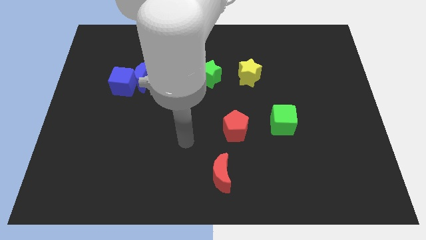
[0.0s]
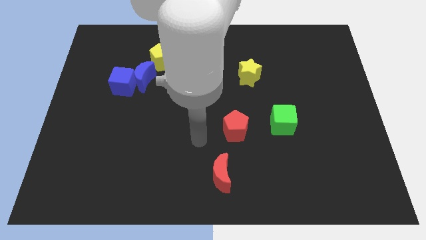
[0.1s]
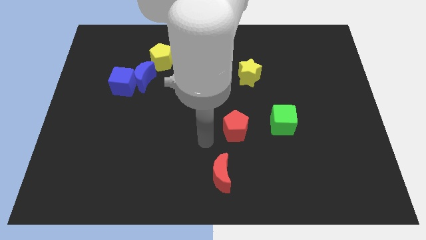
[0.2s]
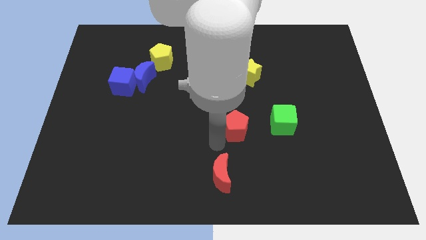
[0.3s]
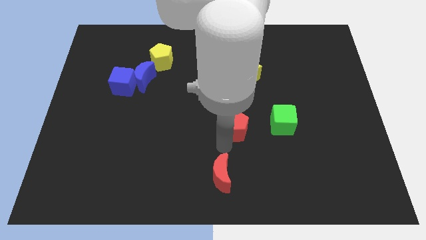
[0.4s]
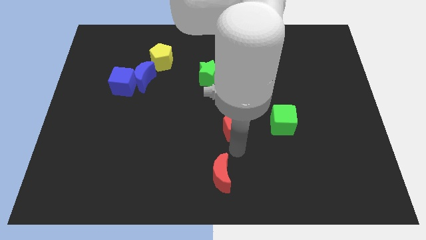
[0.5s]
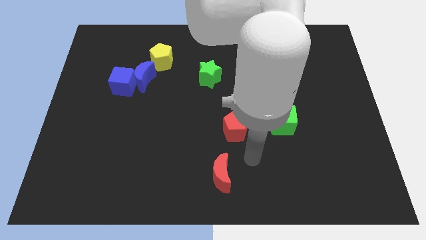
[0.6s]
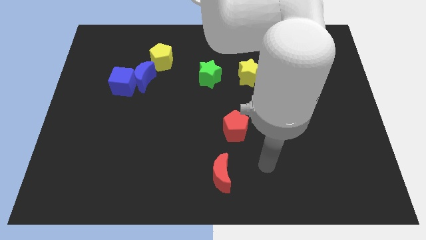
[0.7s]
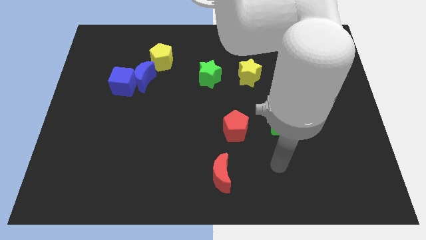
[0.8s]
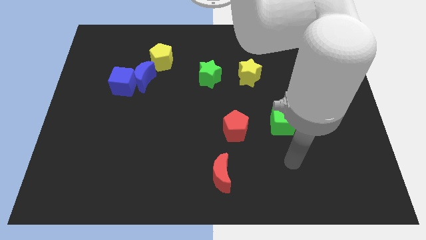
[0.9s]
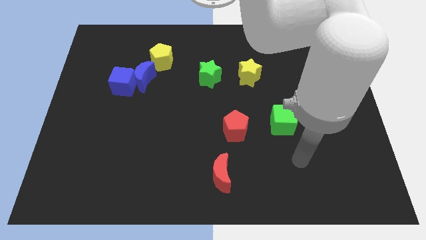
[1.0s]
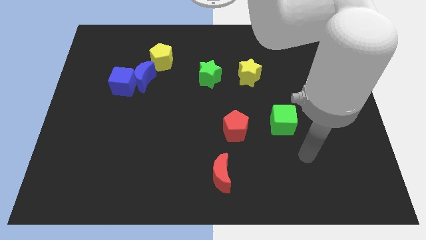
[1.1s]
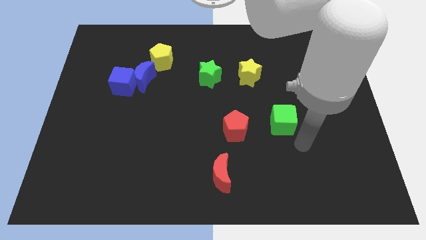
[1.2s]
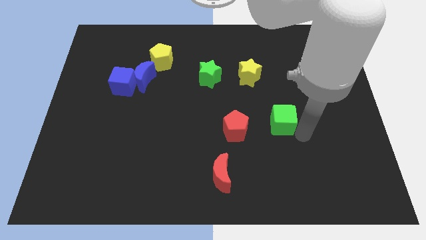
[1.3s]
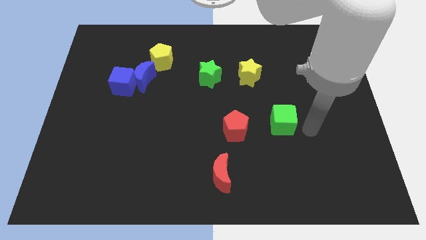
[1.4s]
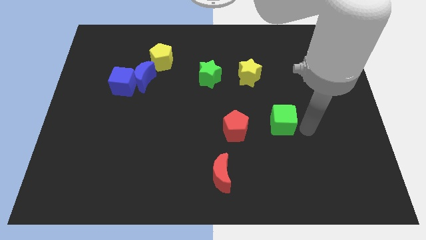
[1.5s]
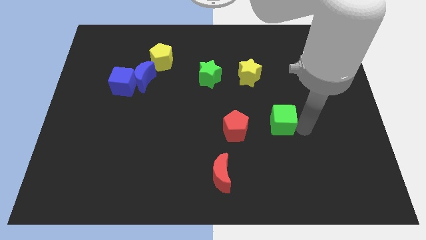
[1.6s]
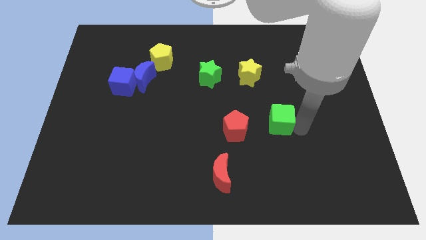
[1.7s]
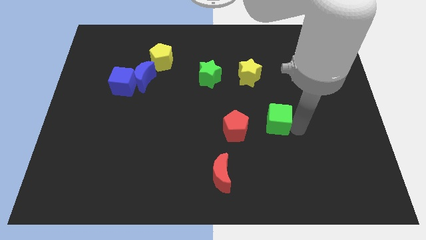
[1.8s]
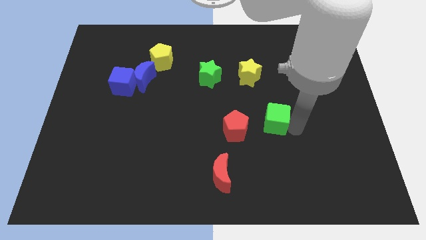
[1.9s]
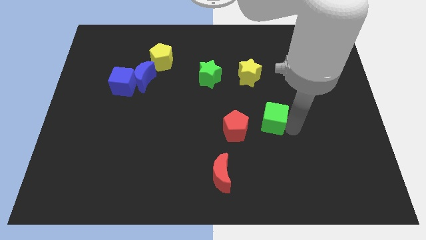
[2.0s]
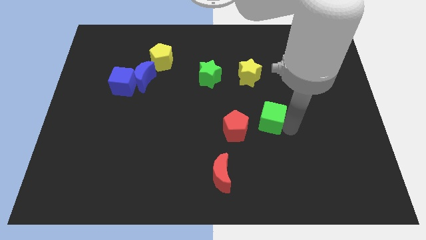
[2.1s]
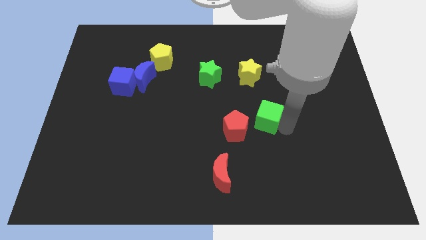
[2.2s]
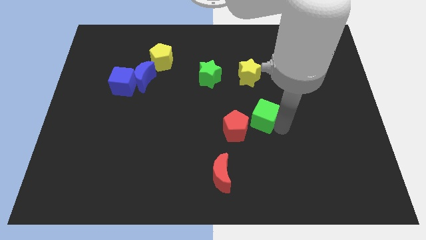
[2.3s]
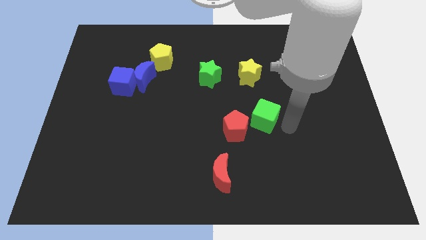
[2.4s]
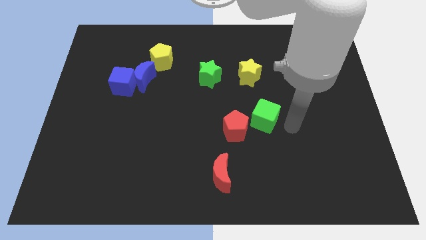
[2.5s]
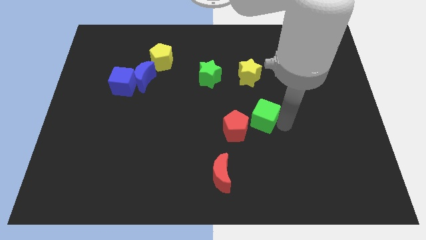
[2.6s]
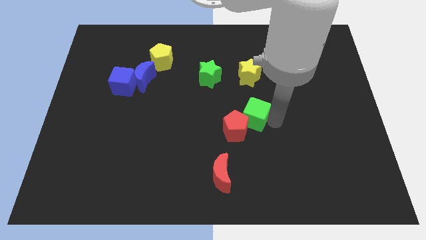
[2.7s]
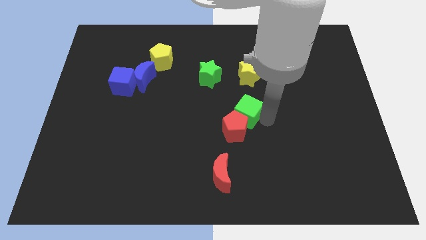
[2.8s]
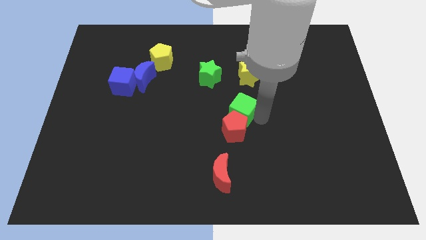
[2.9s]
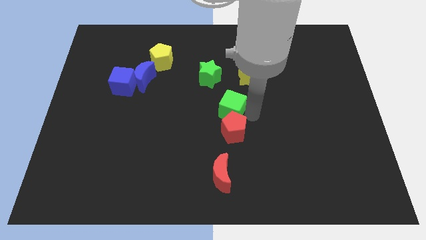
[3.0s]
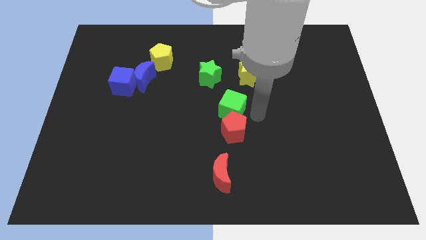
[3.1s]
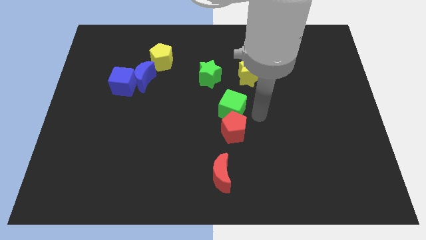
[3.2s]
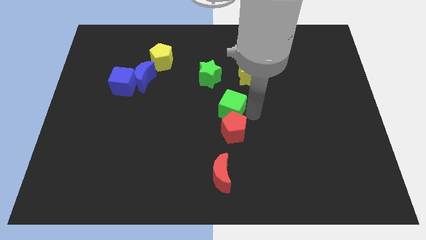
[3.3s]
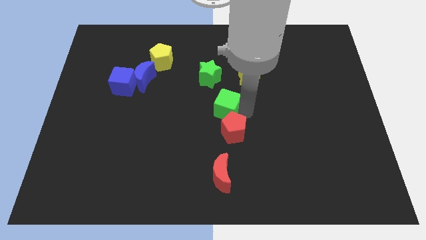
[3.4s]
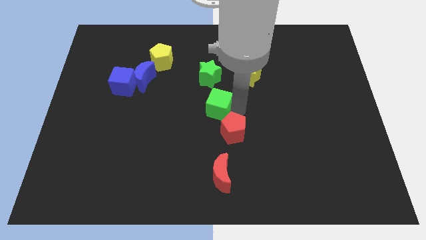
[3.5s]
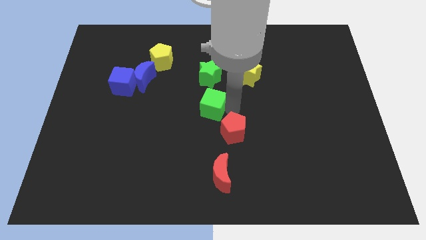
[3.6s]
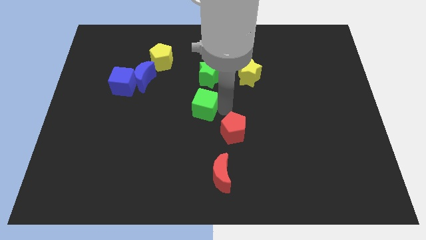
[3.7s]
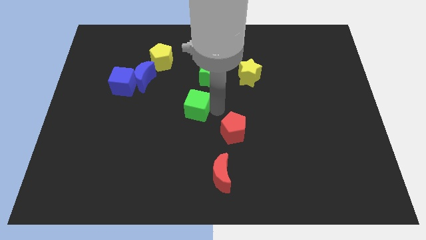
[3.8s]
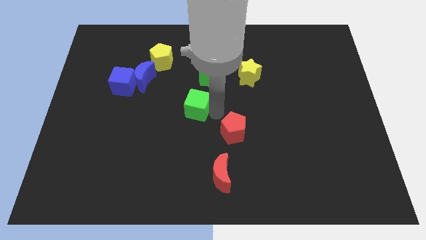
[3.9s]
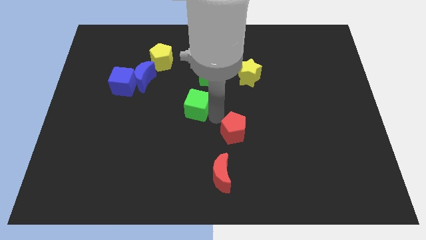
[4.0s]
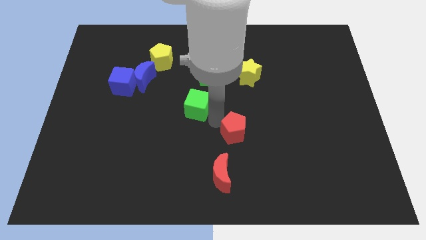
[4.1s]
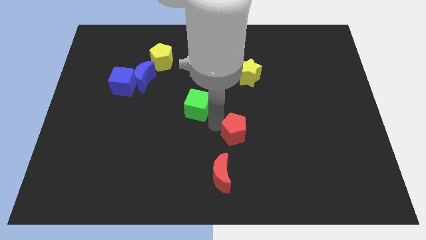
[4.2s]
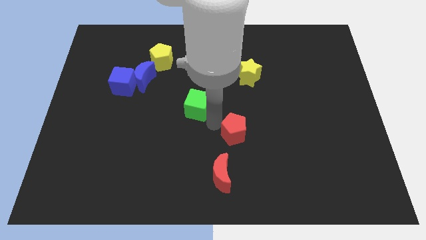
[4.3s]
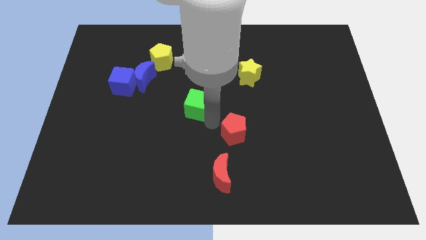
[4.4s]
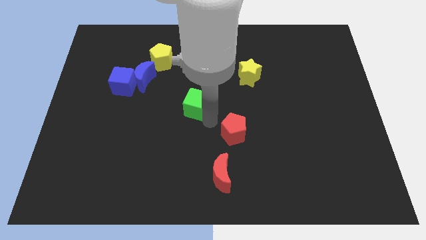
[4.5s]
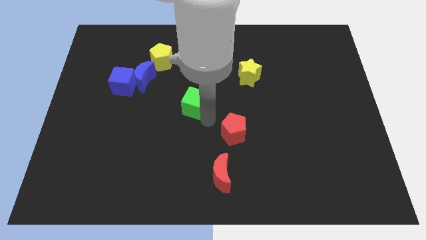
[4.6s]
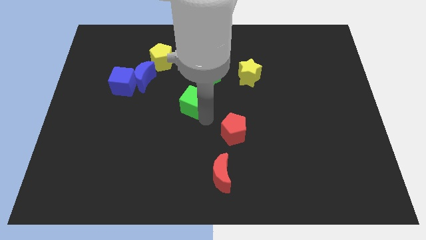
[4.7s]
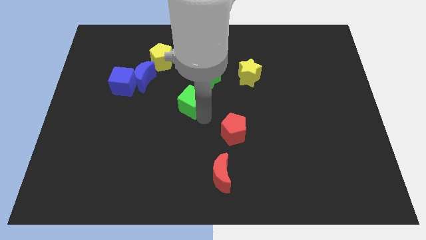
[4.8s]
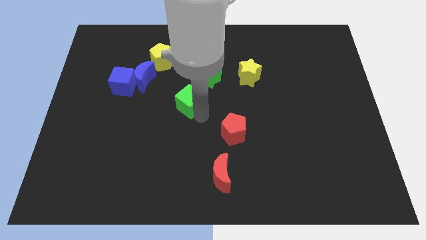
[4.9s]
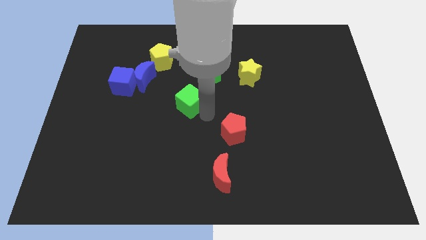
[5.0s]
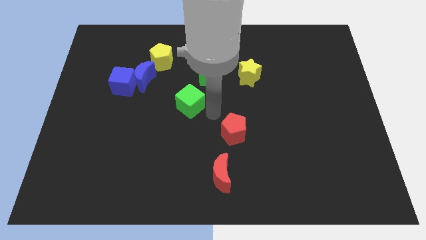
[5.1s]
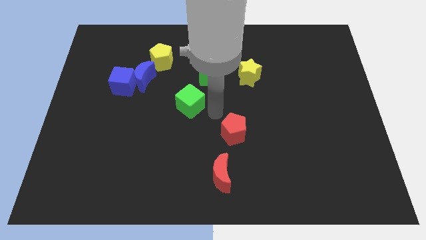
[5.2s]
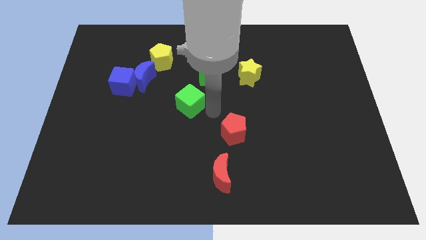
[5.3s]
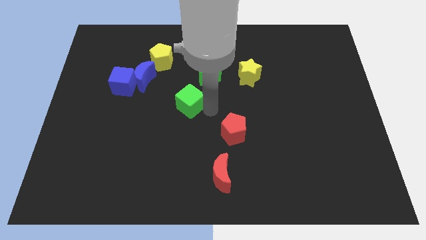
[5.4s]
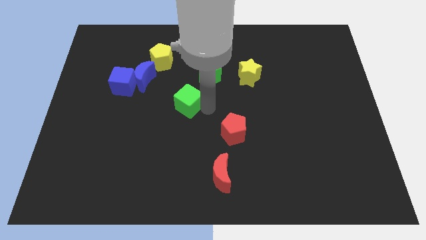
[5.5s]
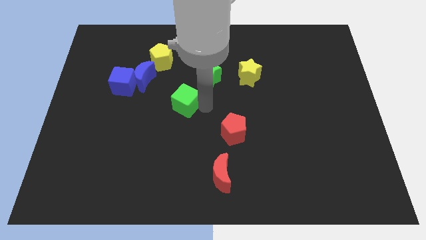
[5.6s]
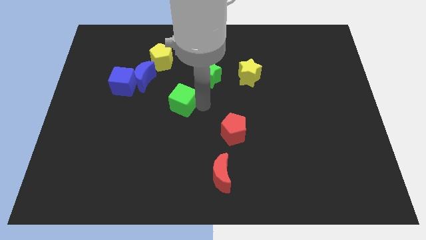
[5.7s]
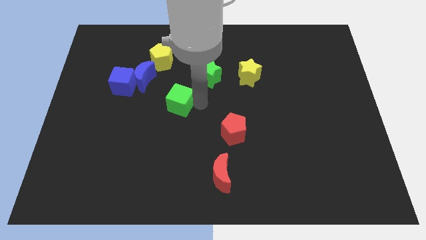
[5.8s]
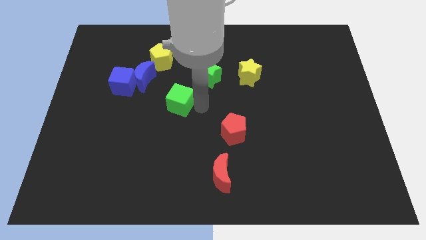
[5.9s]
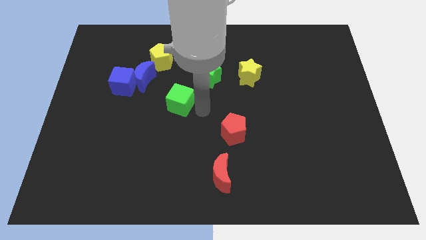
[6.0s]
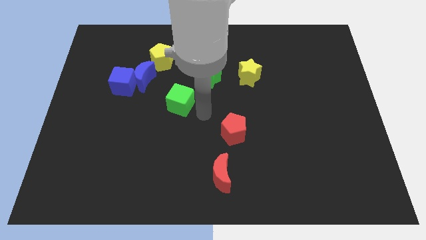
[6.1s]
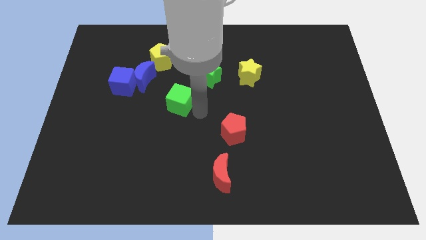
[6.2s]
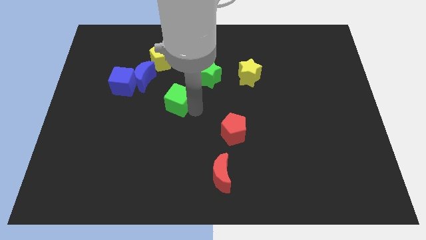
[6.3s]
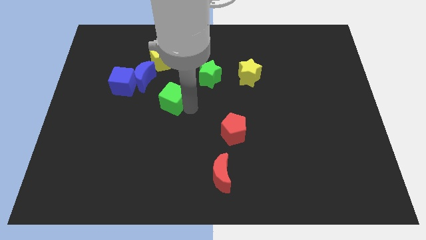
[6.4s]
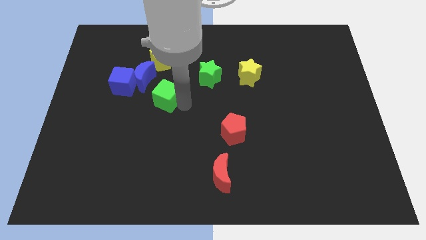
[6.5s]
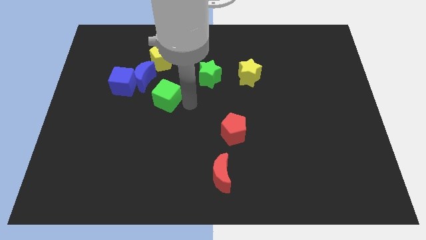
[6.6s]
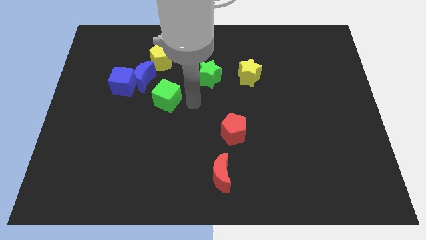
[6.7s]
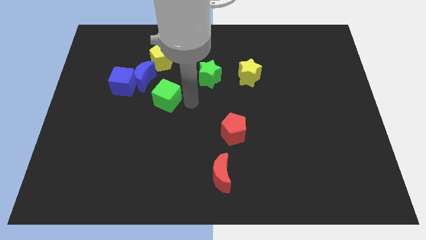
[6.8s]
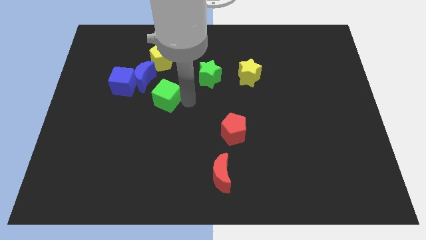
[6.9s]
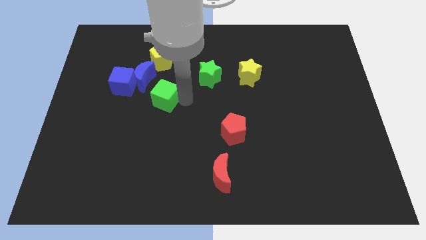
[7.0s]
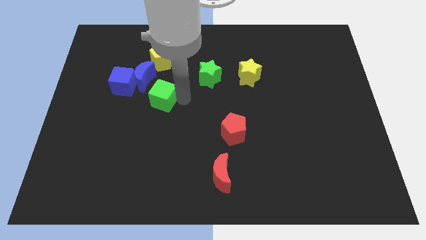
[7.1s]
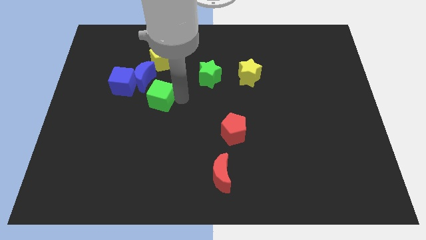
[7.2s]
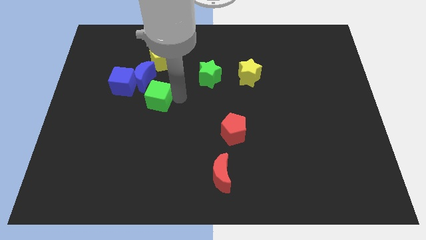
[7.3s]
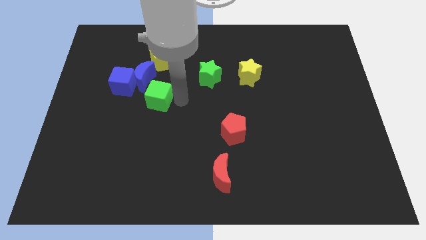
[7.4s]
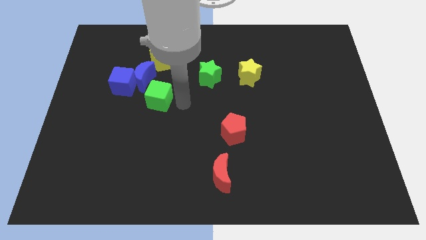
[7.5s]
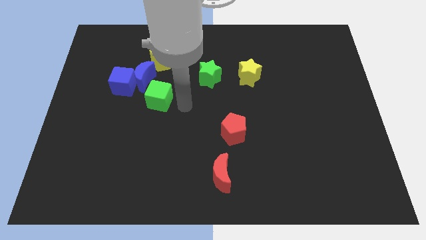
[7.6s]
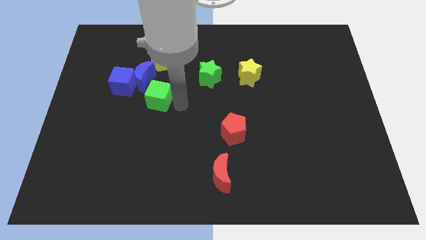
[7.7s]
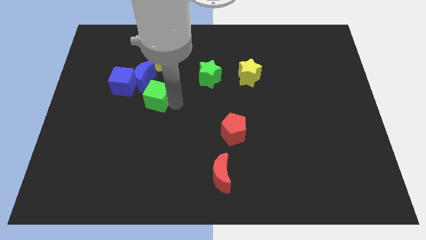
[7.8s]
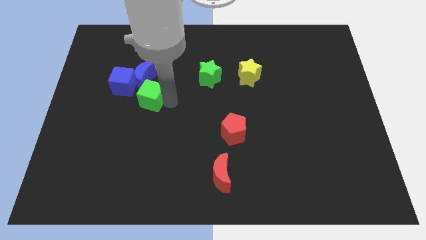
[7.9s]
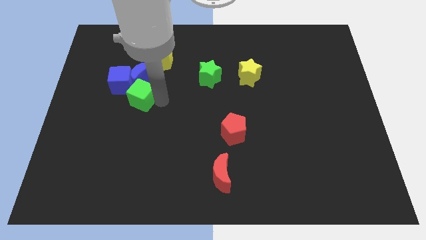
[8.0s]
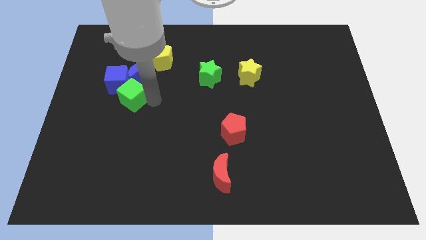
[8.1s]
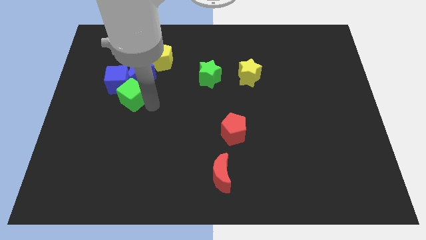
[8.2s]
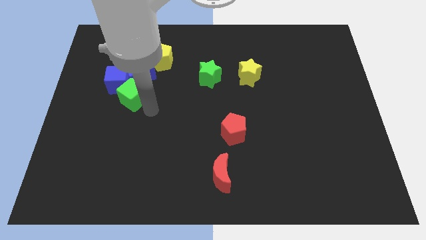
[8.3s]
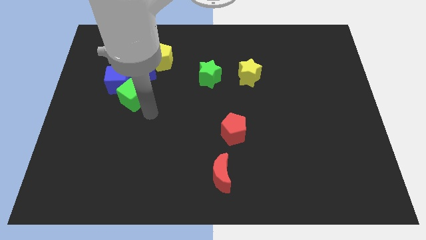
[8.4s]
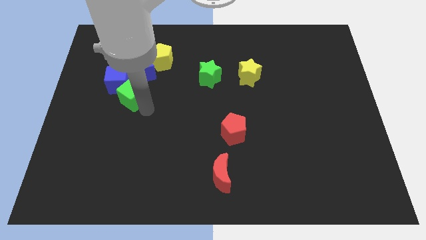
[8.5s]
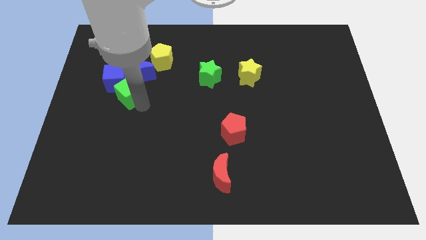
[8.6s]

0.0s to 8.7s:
push the green cube to the blue cube
